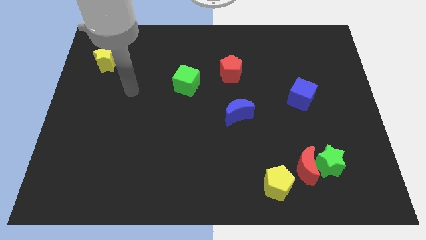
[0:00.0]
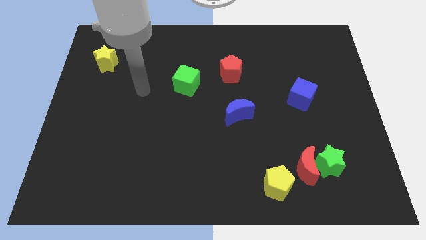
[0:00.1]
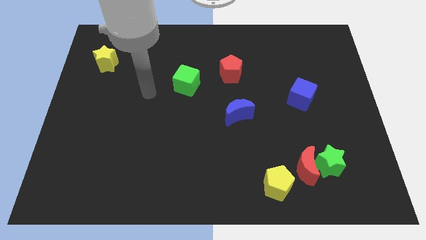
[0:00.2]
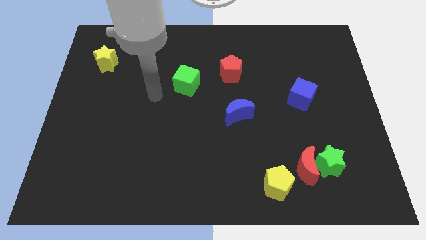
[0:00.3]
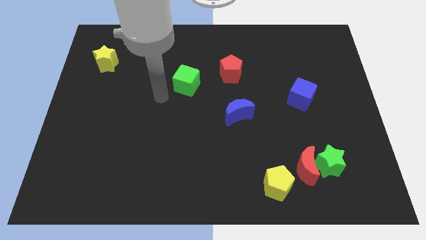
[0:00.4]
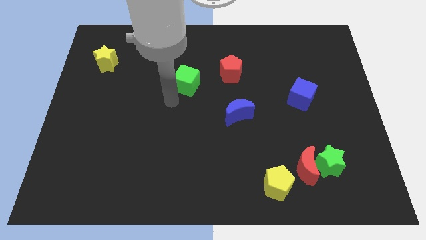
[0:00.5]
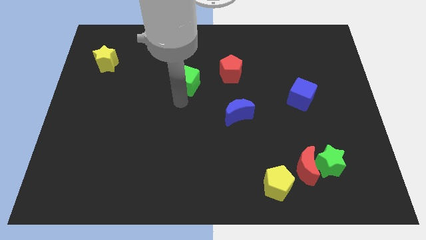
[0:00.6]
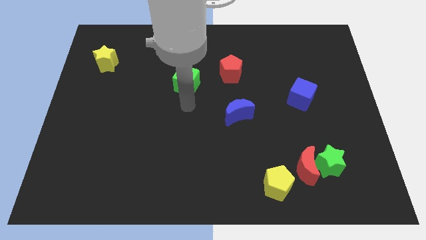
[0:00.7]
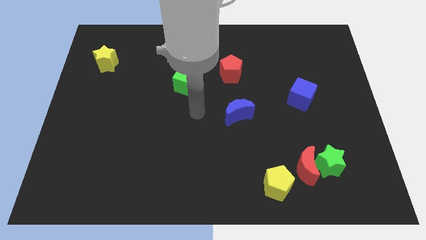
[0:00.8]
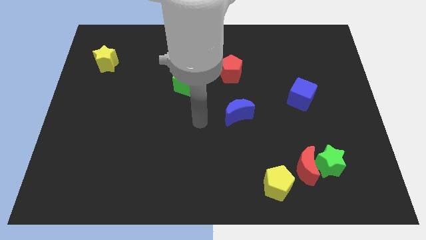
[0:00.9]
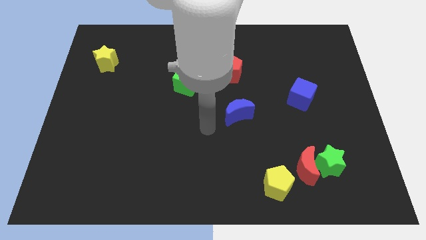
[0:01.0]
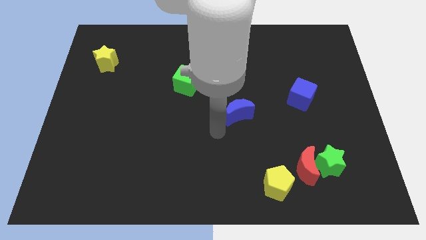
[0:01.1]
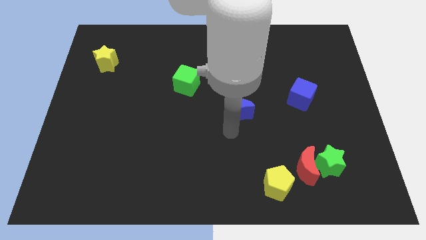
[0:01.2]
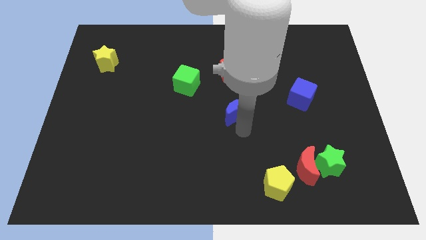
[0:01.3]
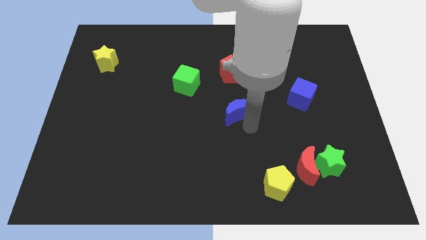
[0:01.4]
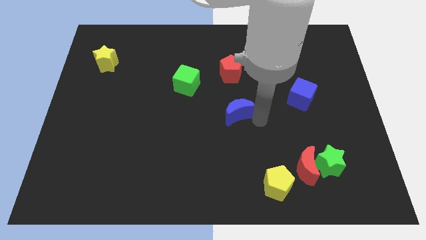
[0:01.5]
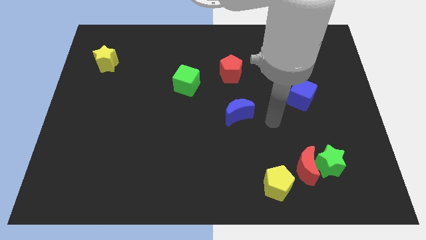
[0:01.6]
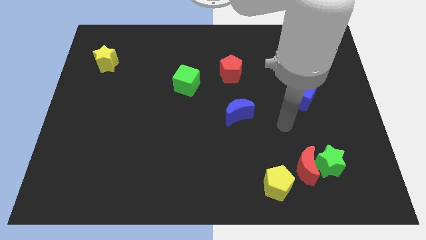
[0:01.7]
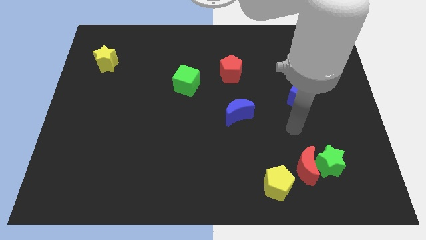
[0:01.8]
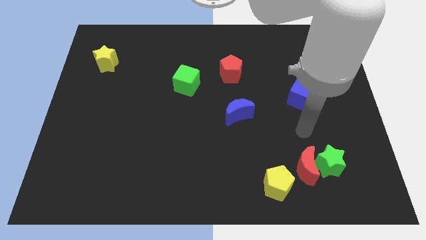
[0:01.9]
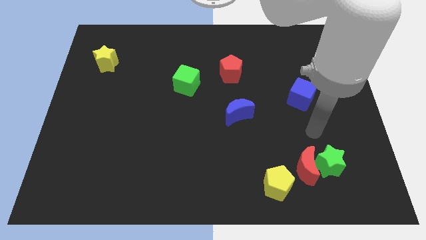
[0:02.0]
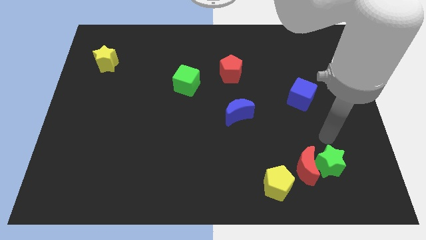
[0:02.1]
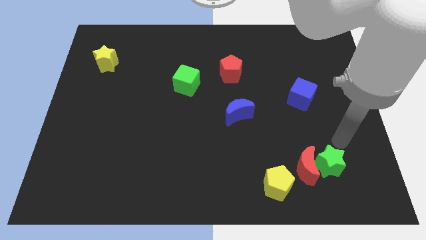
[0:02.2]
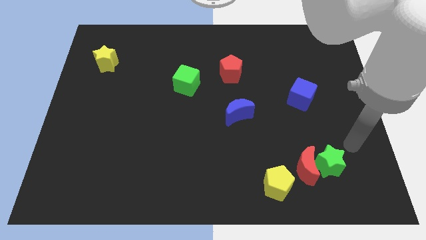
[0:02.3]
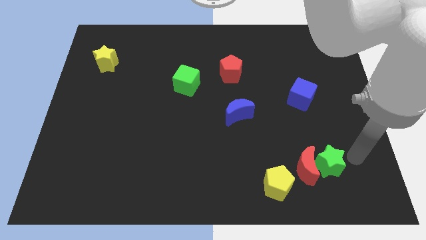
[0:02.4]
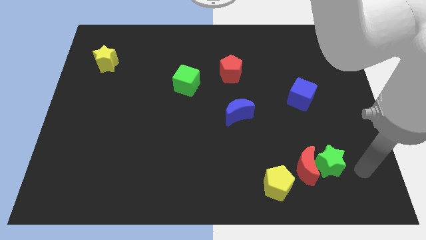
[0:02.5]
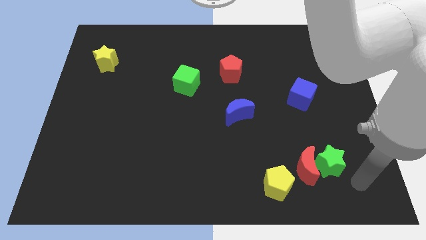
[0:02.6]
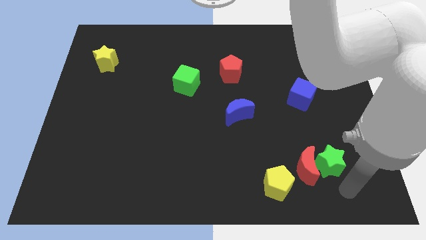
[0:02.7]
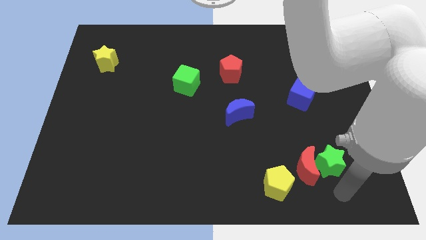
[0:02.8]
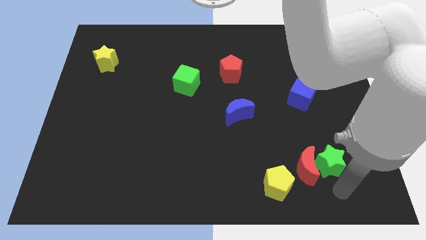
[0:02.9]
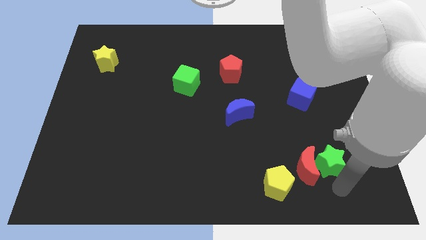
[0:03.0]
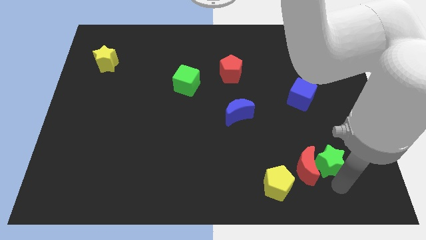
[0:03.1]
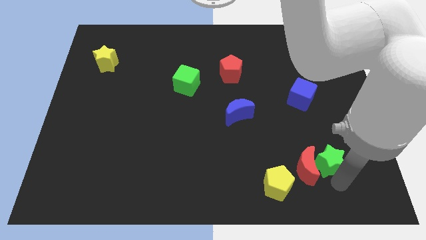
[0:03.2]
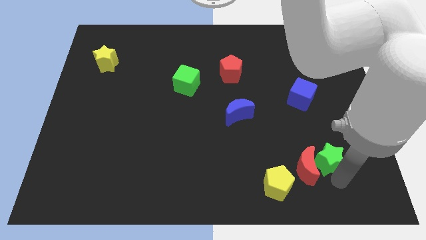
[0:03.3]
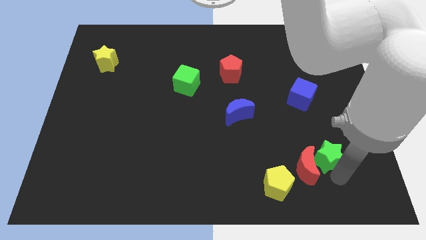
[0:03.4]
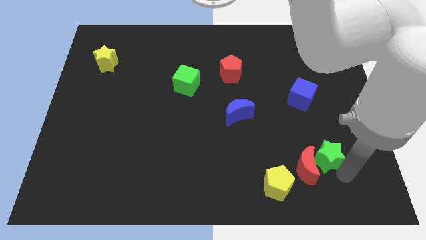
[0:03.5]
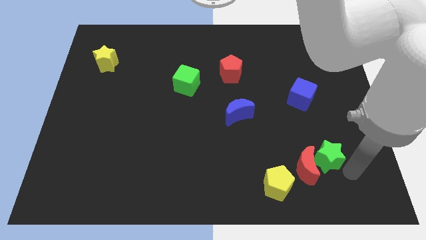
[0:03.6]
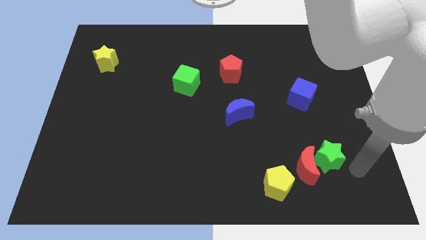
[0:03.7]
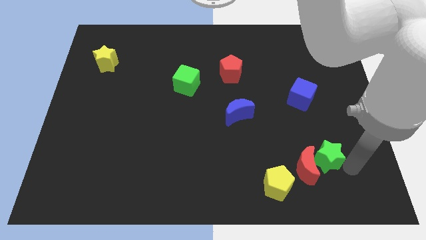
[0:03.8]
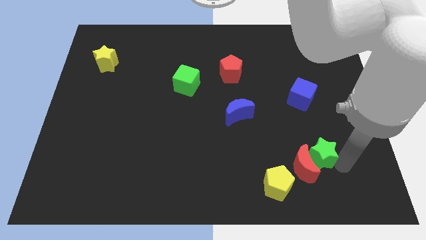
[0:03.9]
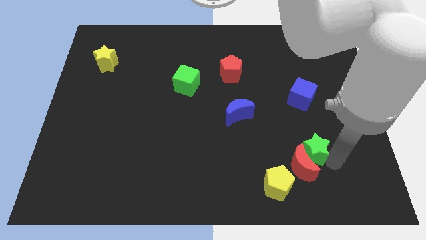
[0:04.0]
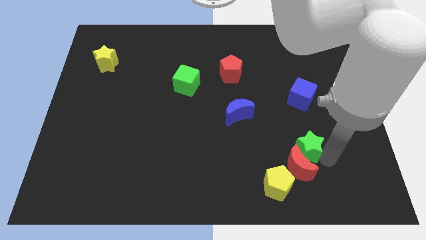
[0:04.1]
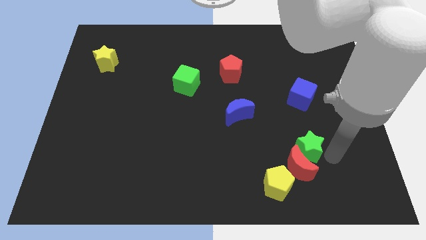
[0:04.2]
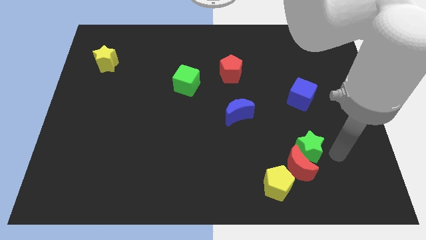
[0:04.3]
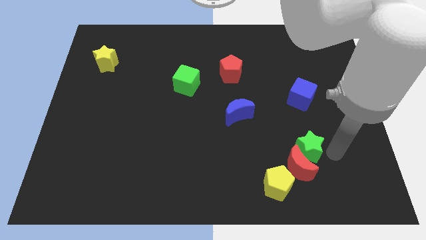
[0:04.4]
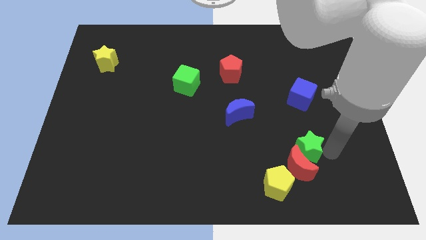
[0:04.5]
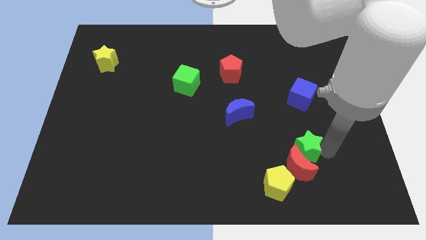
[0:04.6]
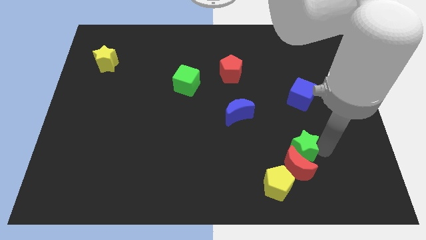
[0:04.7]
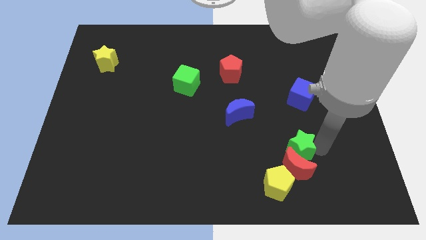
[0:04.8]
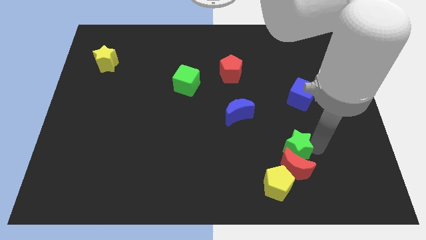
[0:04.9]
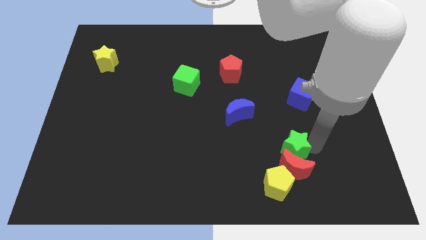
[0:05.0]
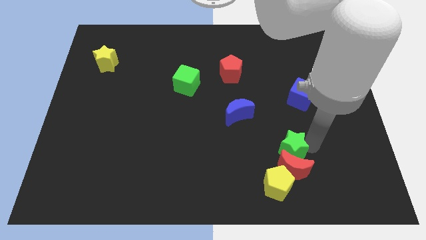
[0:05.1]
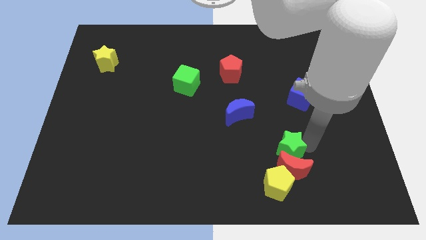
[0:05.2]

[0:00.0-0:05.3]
slightly slide the green star left

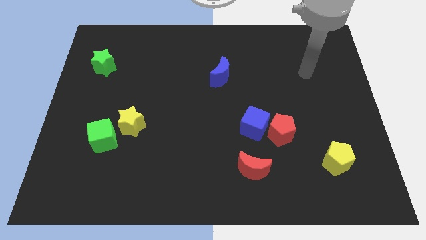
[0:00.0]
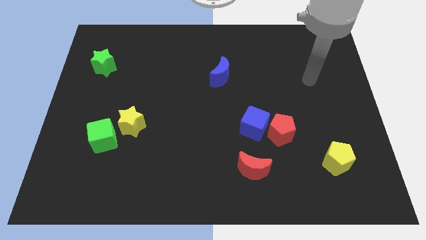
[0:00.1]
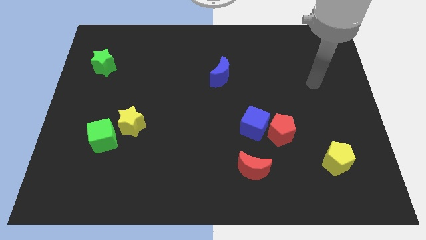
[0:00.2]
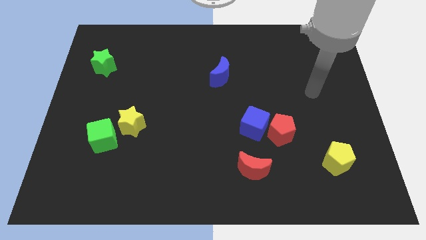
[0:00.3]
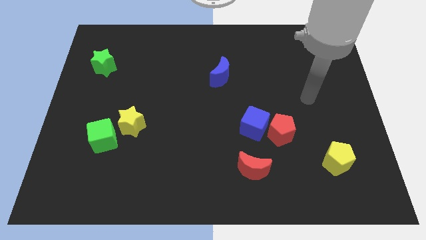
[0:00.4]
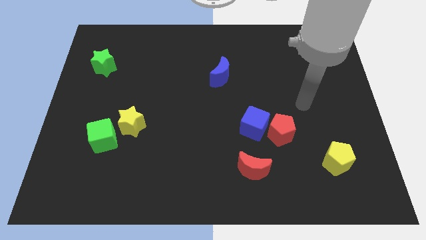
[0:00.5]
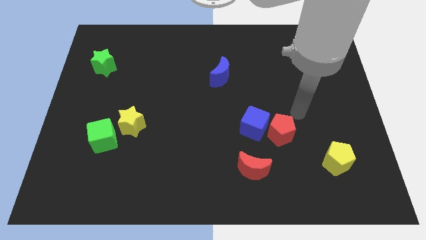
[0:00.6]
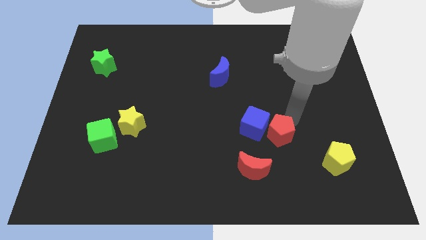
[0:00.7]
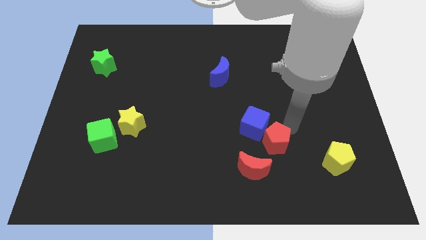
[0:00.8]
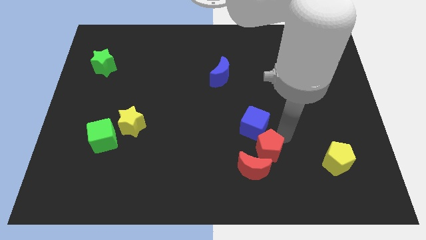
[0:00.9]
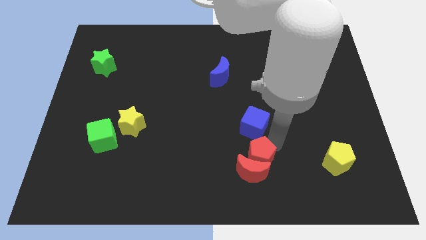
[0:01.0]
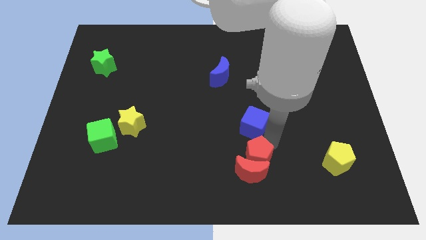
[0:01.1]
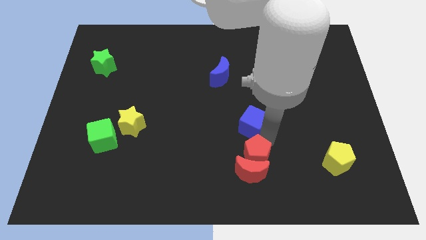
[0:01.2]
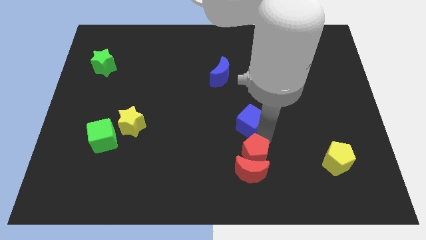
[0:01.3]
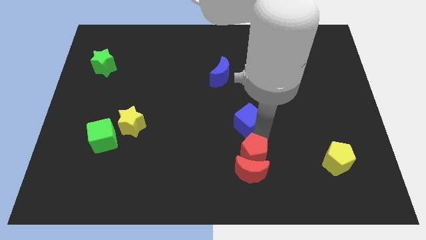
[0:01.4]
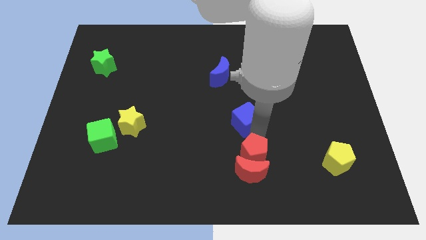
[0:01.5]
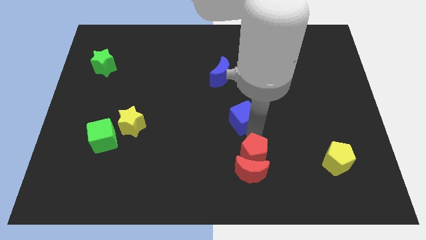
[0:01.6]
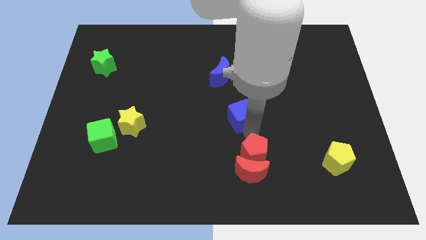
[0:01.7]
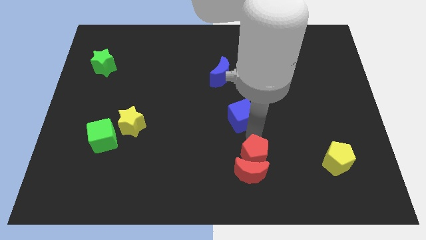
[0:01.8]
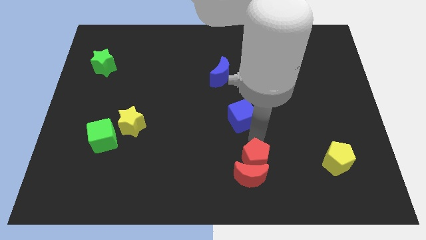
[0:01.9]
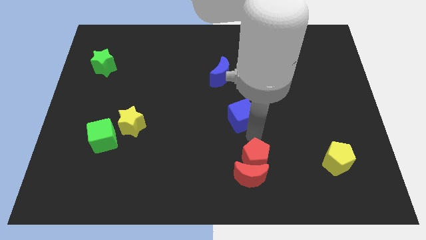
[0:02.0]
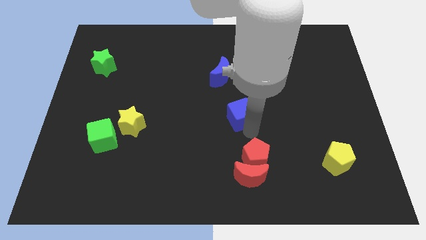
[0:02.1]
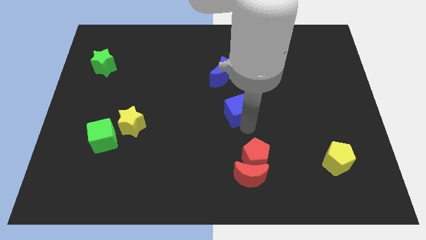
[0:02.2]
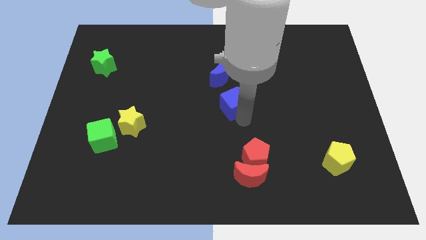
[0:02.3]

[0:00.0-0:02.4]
slightly push the blue cube diagonally upwards and left

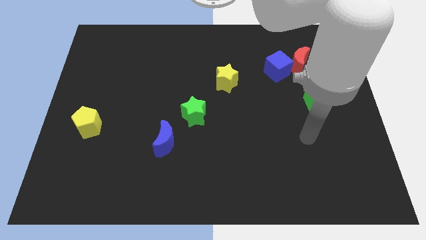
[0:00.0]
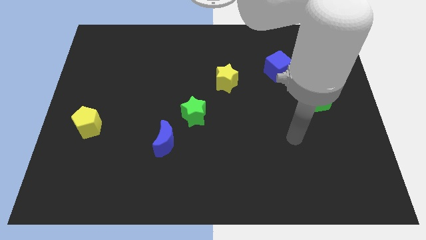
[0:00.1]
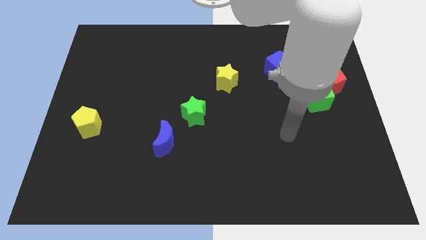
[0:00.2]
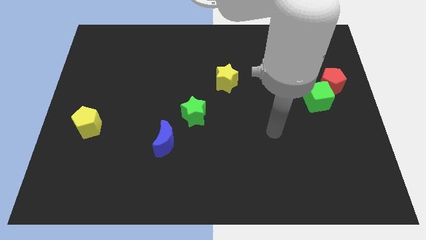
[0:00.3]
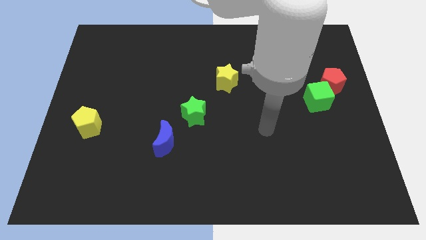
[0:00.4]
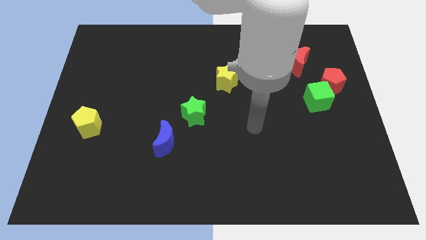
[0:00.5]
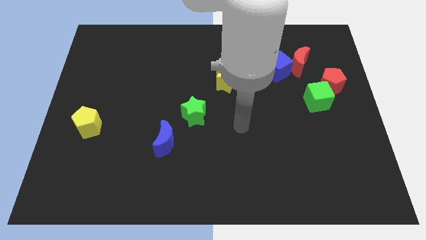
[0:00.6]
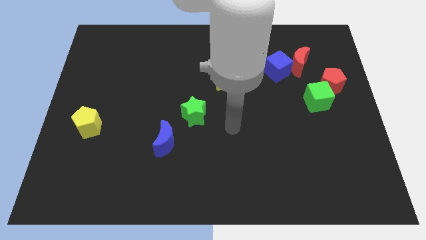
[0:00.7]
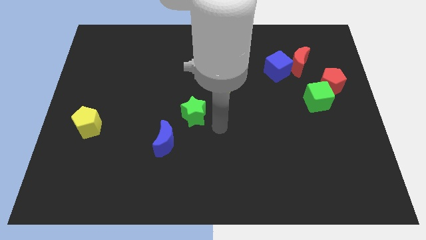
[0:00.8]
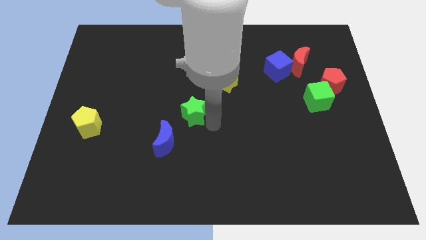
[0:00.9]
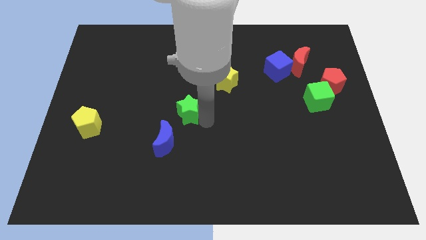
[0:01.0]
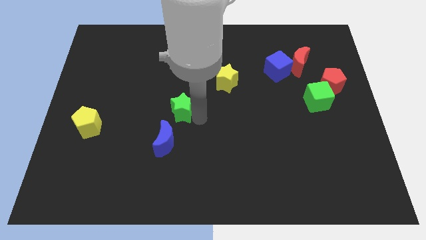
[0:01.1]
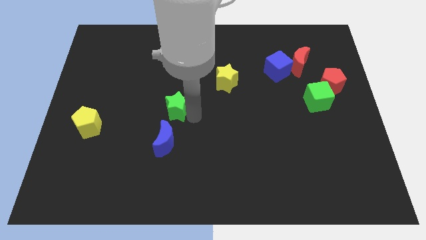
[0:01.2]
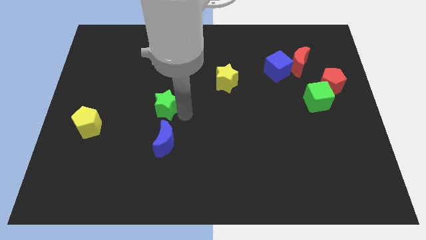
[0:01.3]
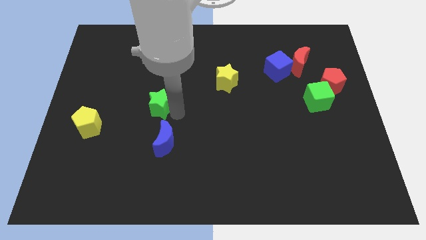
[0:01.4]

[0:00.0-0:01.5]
move the green star diagonally up and to the left somewhat
